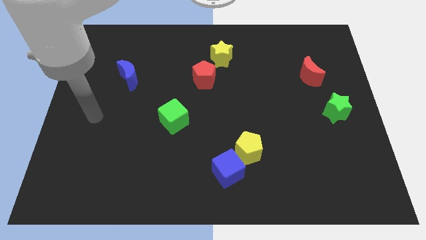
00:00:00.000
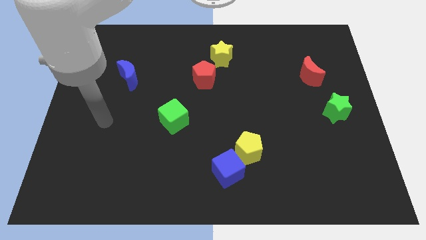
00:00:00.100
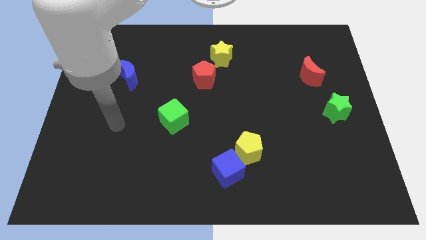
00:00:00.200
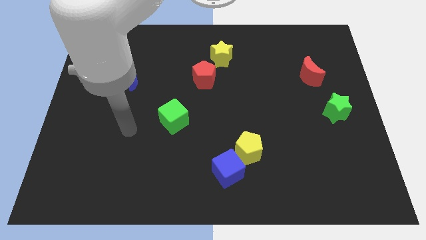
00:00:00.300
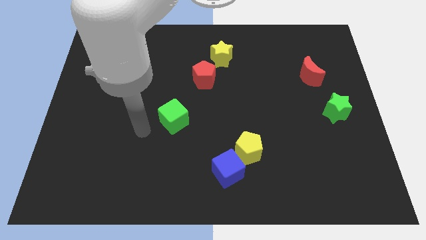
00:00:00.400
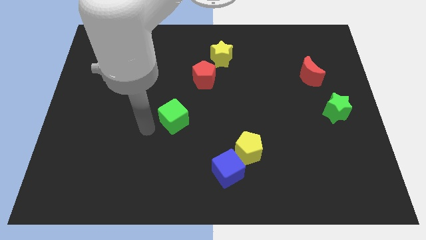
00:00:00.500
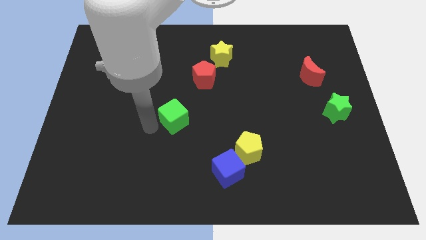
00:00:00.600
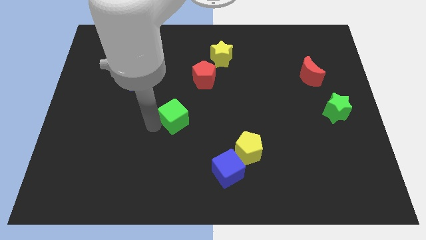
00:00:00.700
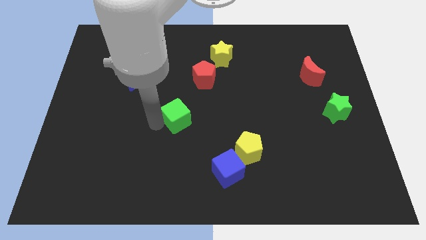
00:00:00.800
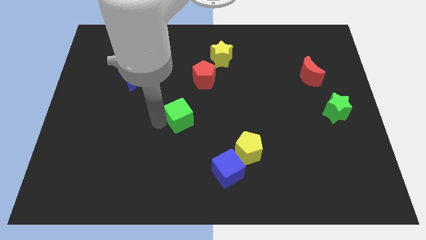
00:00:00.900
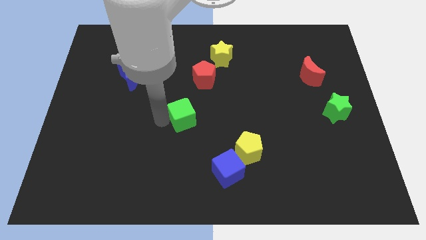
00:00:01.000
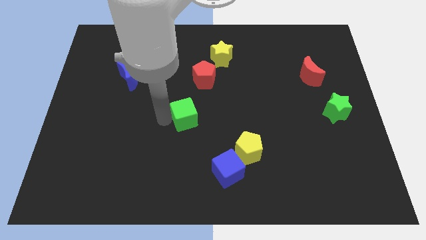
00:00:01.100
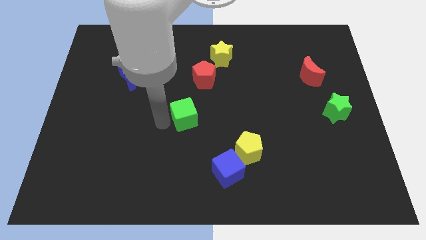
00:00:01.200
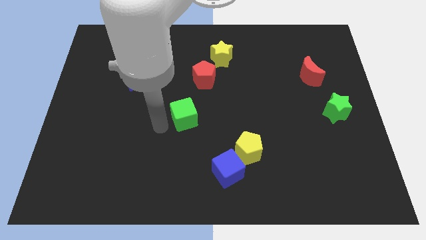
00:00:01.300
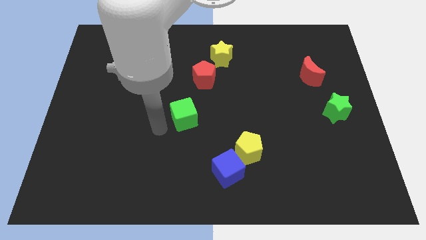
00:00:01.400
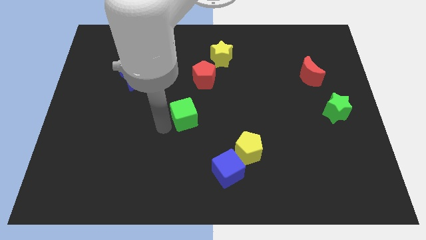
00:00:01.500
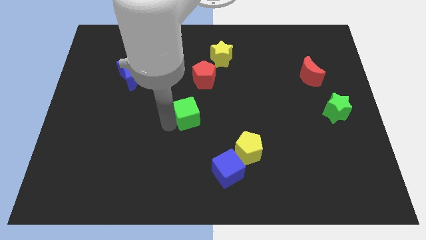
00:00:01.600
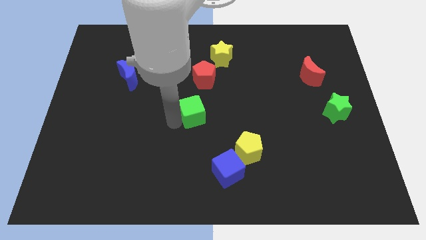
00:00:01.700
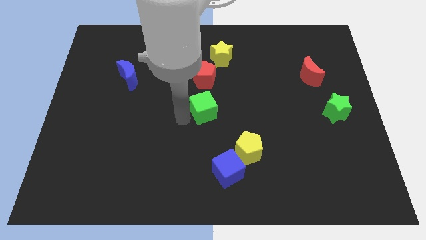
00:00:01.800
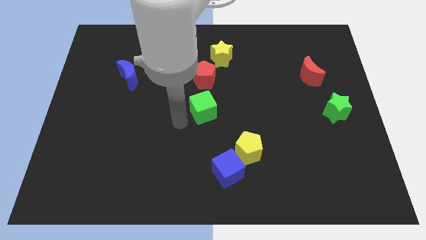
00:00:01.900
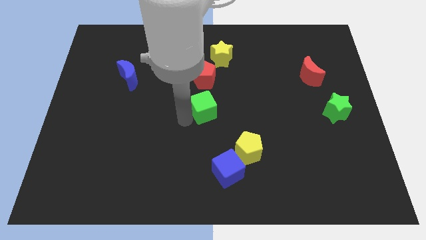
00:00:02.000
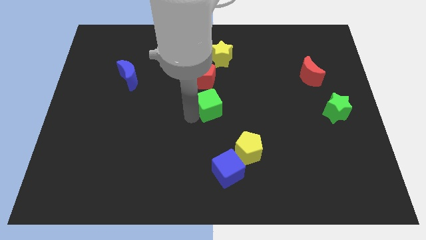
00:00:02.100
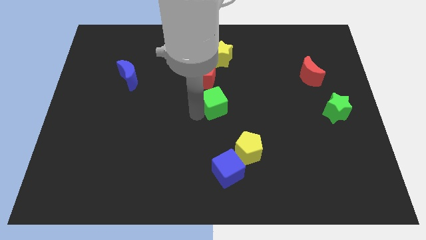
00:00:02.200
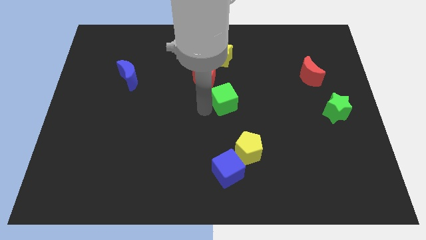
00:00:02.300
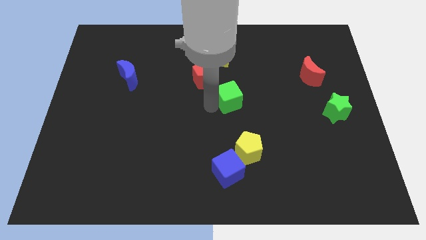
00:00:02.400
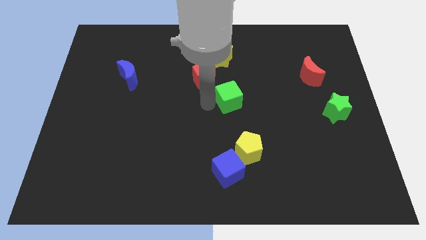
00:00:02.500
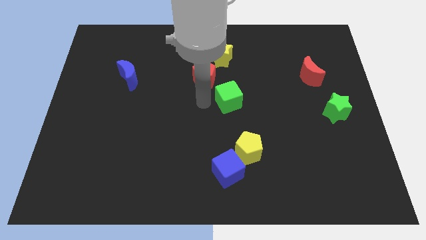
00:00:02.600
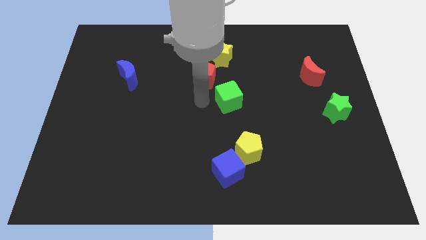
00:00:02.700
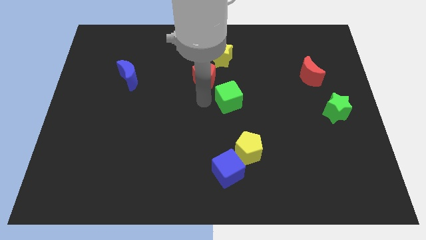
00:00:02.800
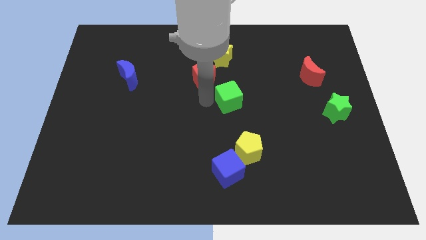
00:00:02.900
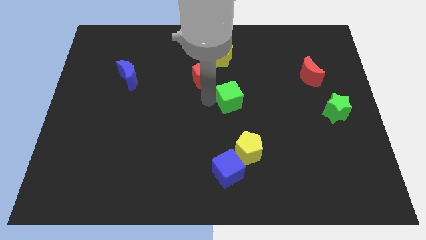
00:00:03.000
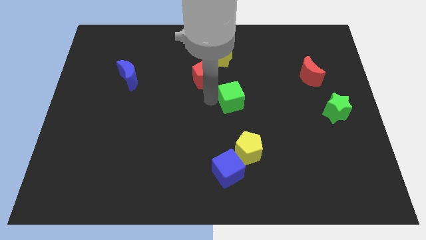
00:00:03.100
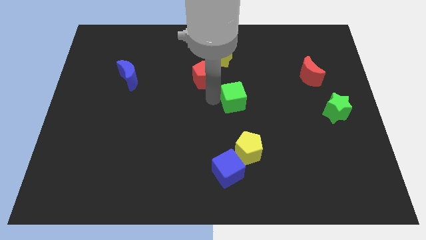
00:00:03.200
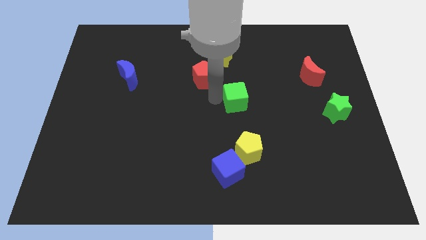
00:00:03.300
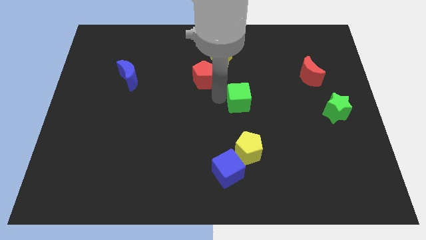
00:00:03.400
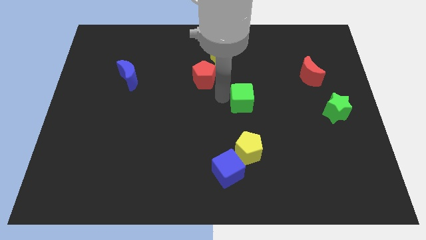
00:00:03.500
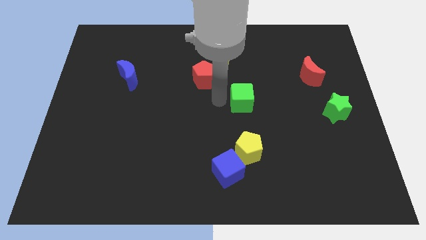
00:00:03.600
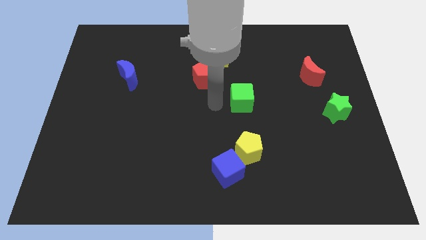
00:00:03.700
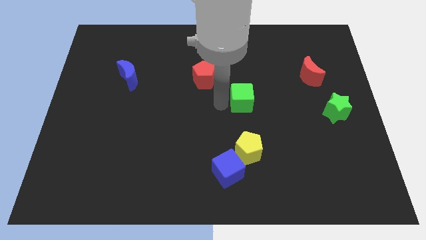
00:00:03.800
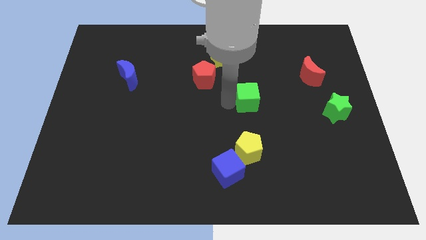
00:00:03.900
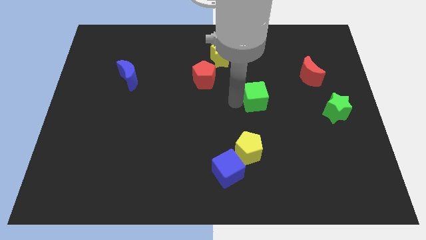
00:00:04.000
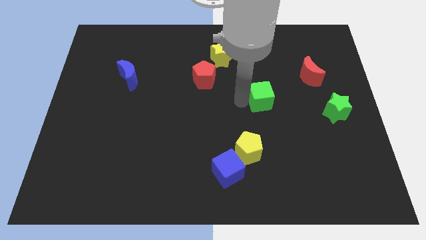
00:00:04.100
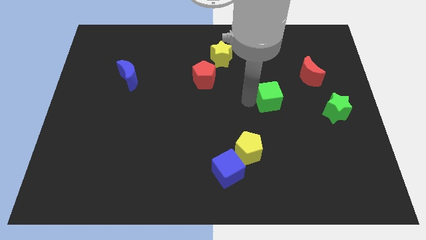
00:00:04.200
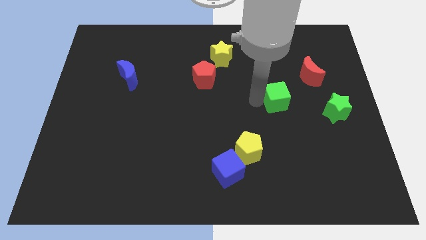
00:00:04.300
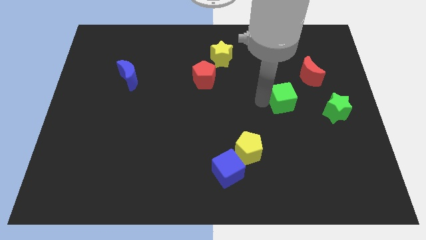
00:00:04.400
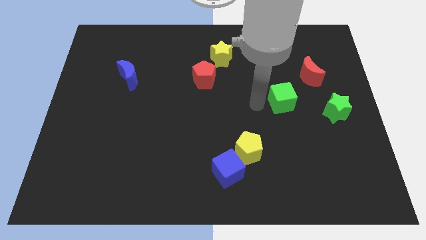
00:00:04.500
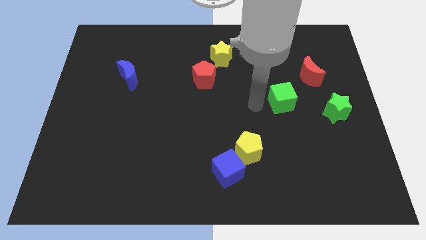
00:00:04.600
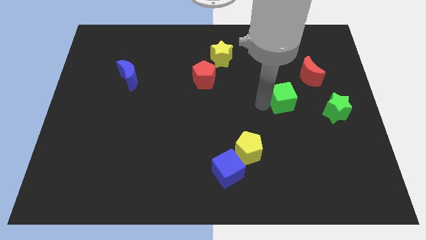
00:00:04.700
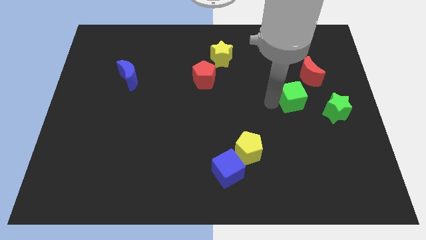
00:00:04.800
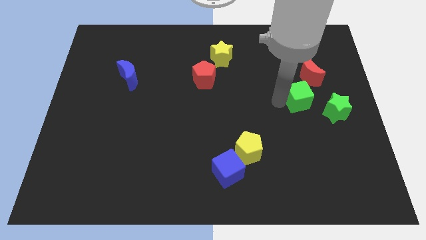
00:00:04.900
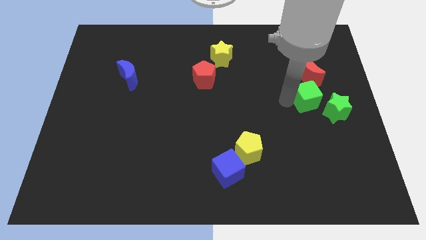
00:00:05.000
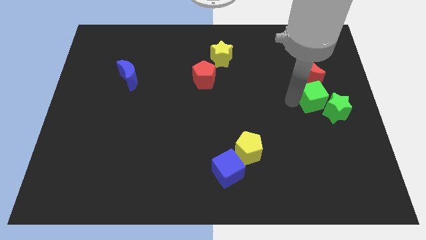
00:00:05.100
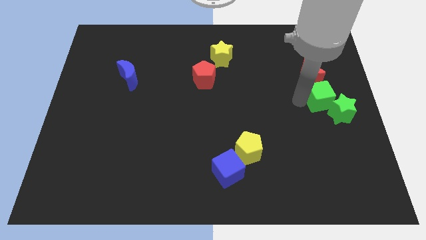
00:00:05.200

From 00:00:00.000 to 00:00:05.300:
put the green cube to the right side of the board

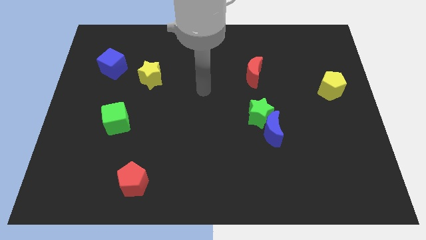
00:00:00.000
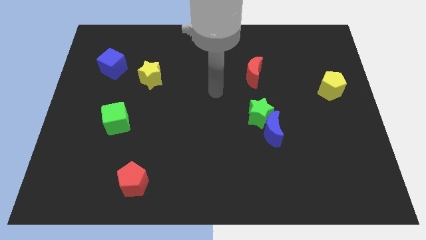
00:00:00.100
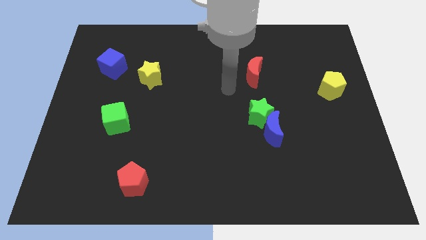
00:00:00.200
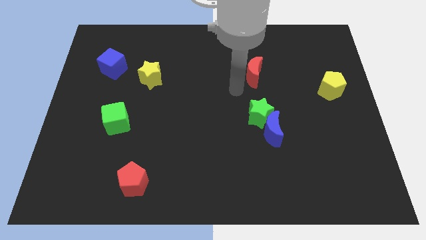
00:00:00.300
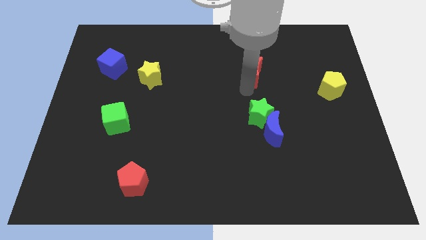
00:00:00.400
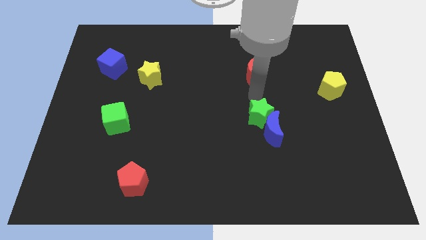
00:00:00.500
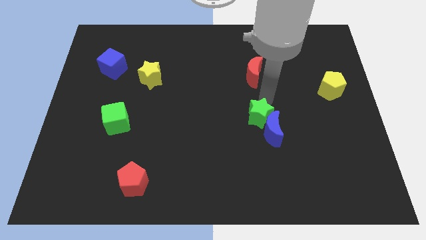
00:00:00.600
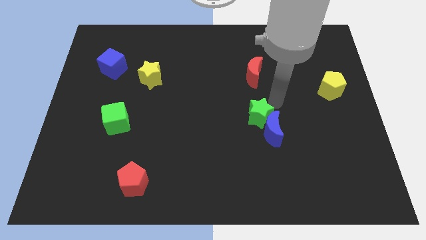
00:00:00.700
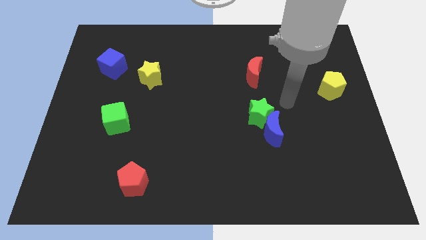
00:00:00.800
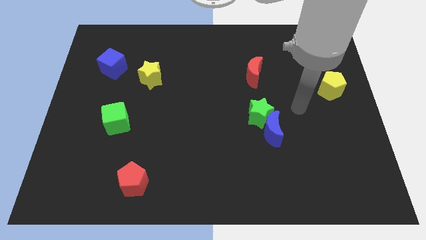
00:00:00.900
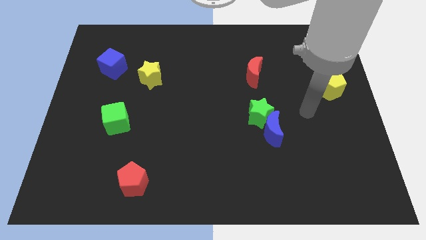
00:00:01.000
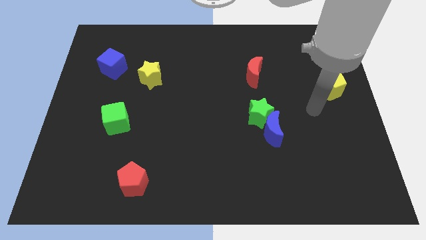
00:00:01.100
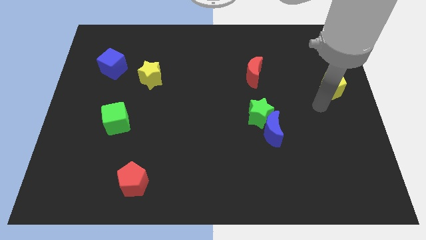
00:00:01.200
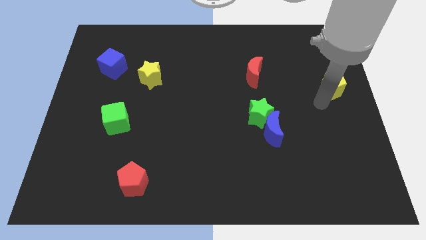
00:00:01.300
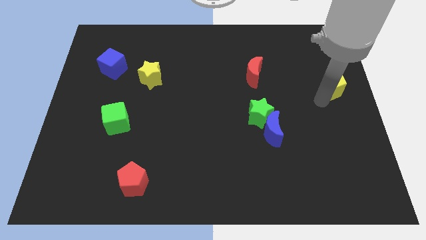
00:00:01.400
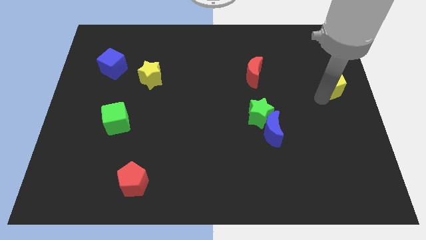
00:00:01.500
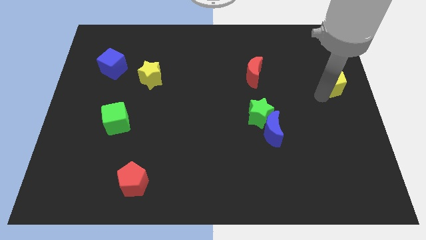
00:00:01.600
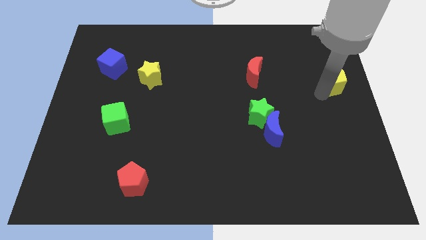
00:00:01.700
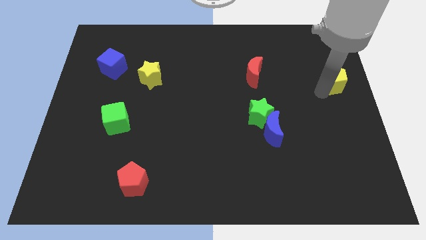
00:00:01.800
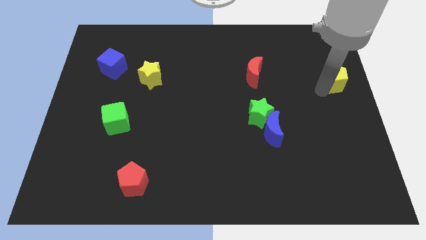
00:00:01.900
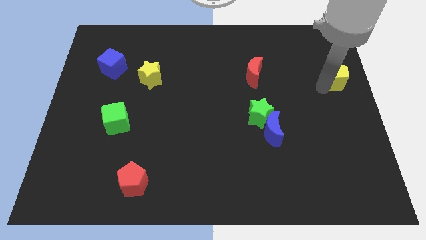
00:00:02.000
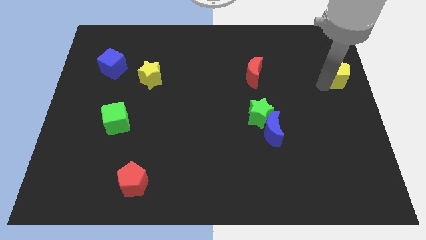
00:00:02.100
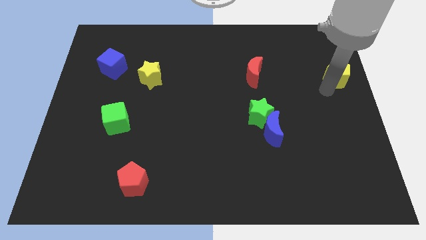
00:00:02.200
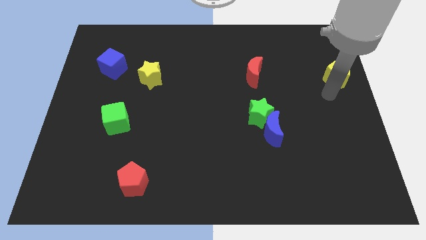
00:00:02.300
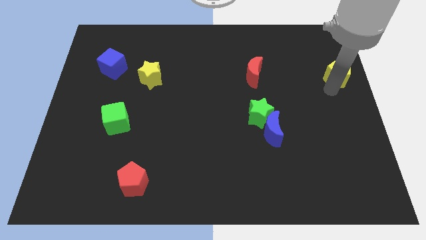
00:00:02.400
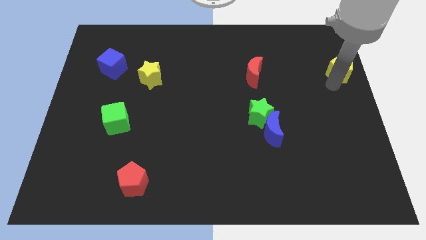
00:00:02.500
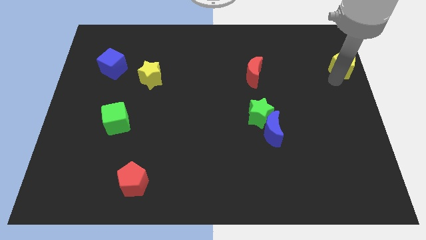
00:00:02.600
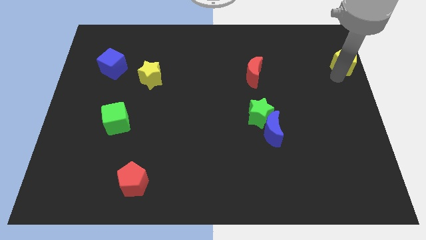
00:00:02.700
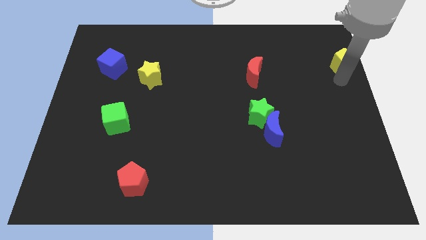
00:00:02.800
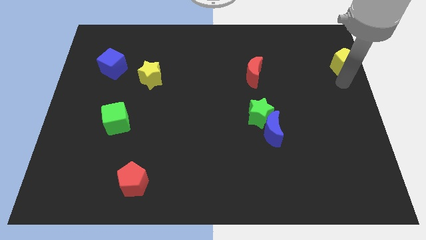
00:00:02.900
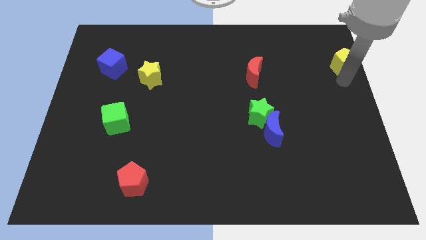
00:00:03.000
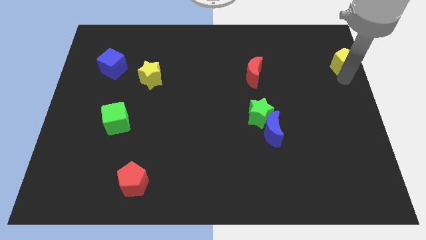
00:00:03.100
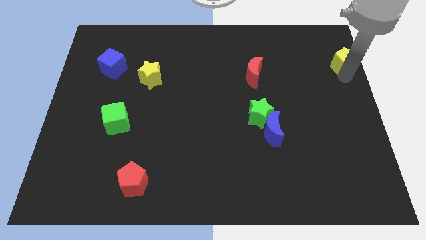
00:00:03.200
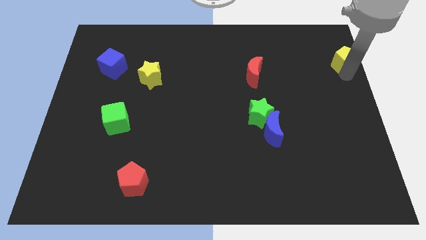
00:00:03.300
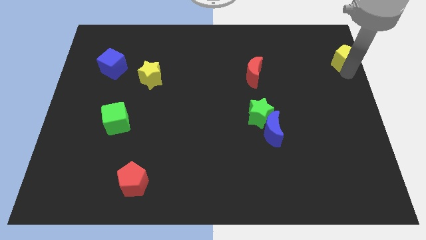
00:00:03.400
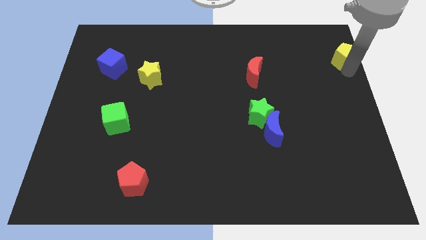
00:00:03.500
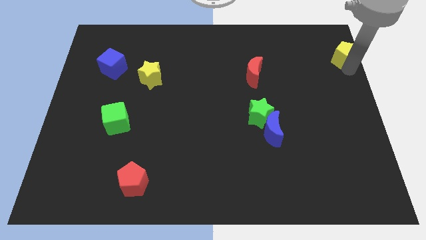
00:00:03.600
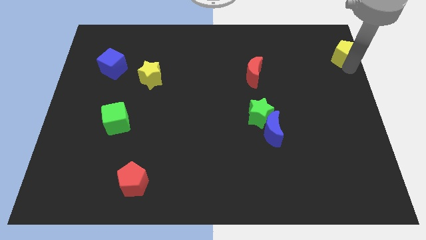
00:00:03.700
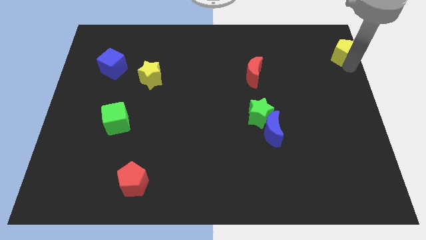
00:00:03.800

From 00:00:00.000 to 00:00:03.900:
put the yellow pentagon to the top right of the board
